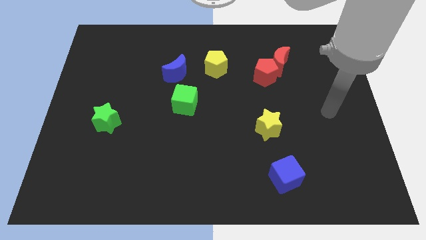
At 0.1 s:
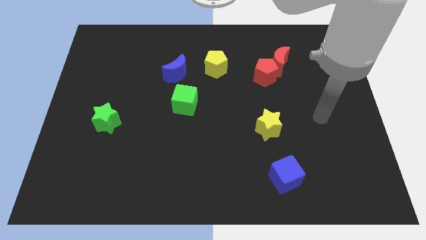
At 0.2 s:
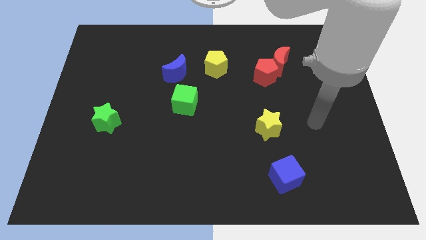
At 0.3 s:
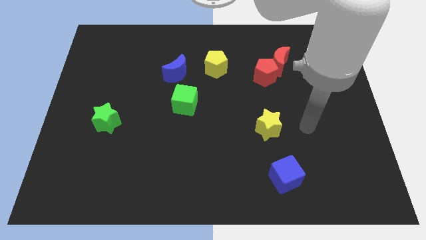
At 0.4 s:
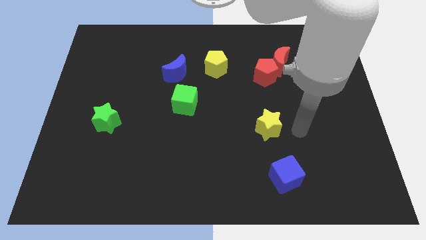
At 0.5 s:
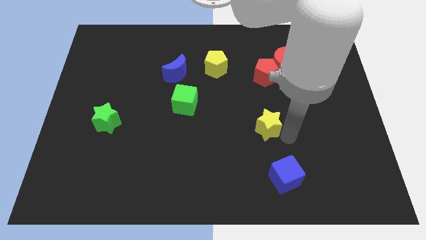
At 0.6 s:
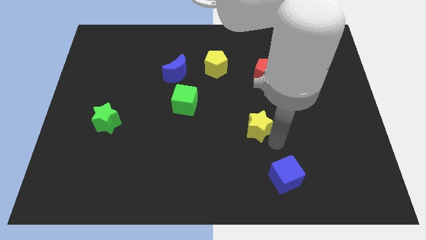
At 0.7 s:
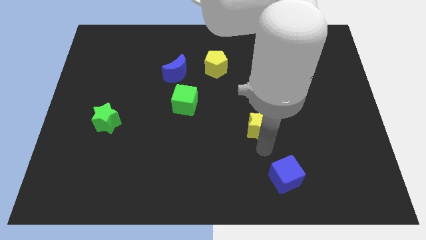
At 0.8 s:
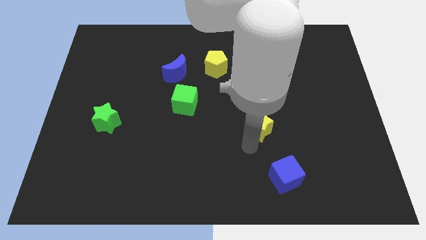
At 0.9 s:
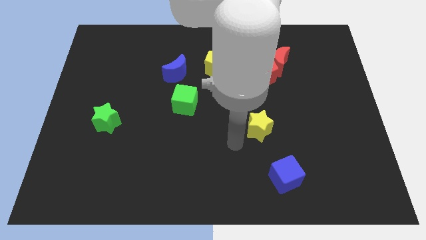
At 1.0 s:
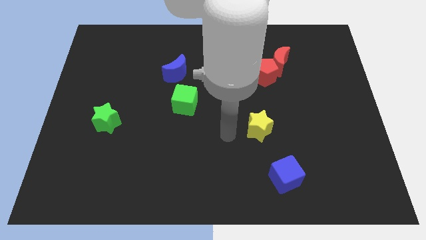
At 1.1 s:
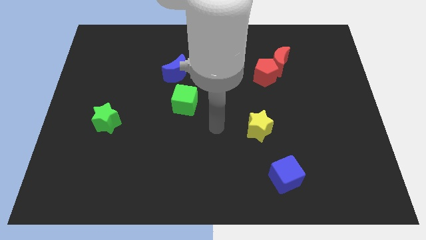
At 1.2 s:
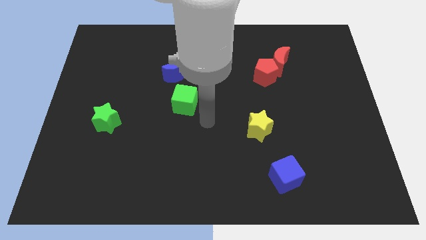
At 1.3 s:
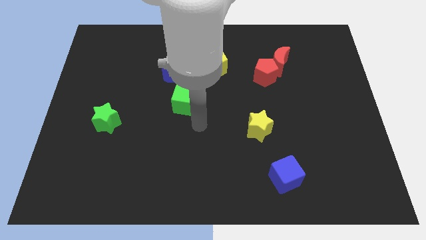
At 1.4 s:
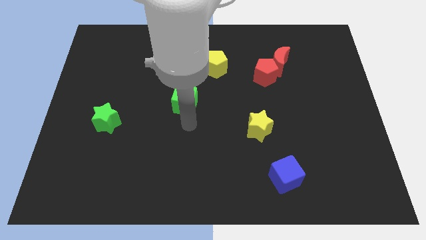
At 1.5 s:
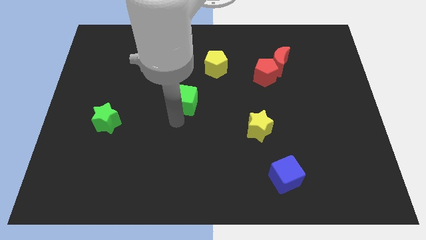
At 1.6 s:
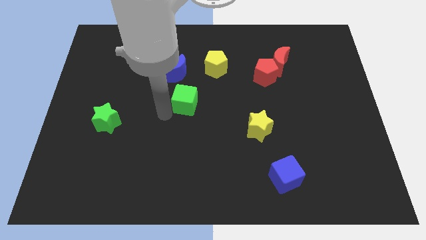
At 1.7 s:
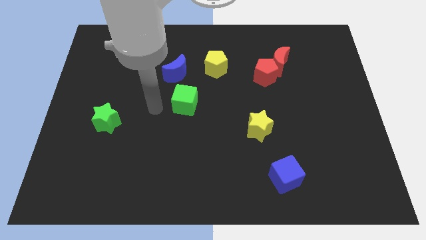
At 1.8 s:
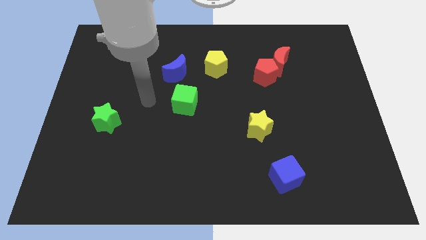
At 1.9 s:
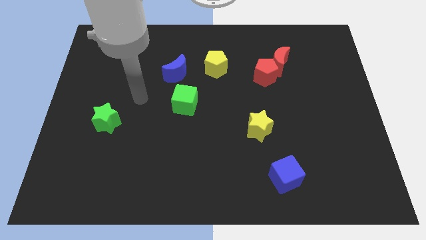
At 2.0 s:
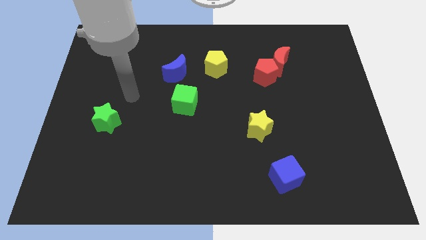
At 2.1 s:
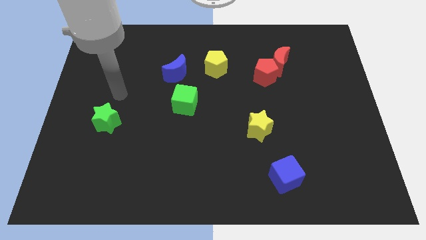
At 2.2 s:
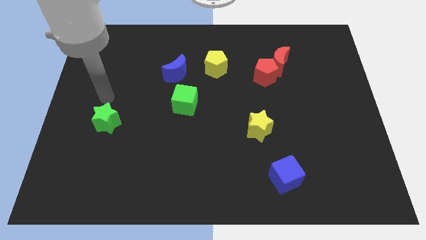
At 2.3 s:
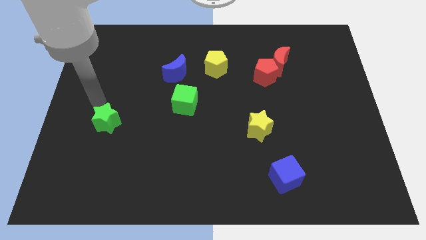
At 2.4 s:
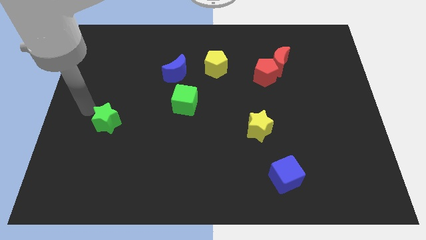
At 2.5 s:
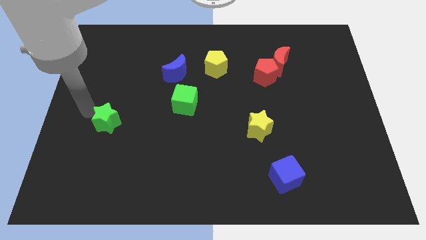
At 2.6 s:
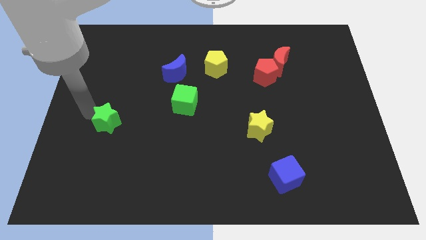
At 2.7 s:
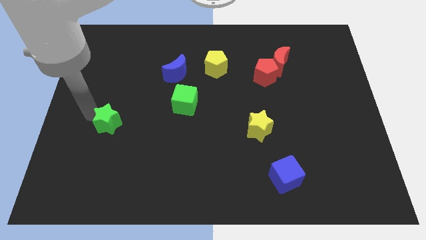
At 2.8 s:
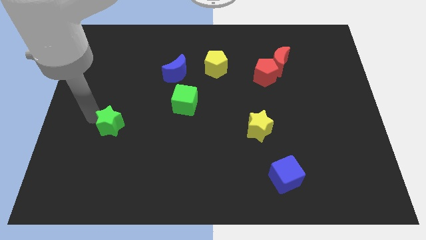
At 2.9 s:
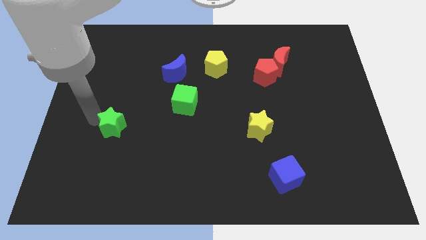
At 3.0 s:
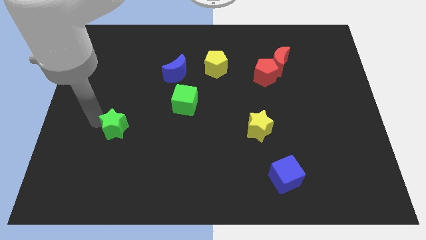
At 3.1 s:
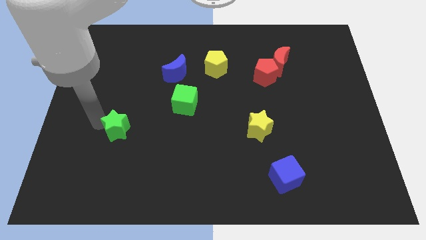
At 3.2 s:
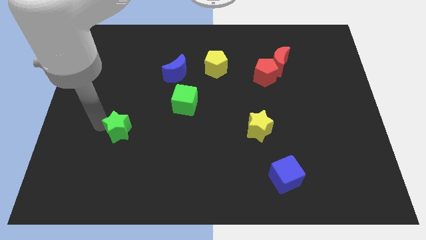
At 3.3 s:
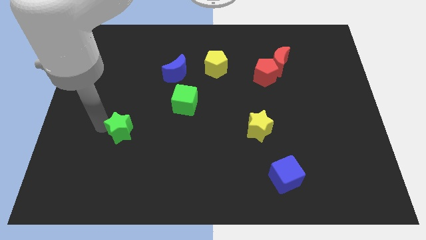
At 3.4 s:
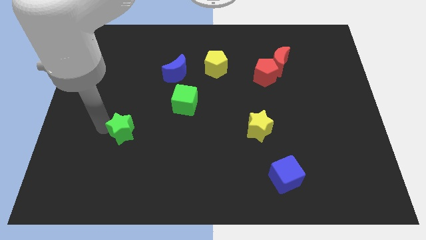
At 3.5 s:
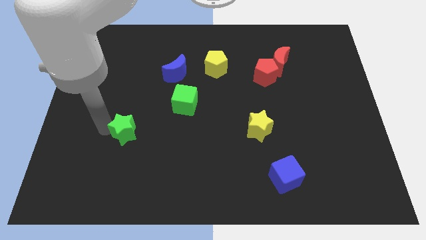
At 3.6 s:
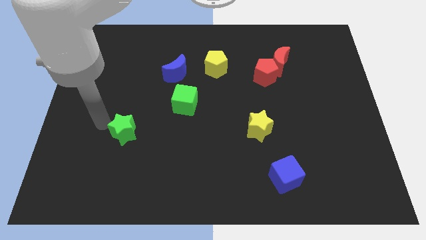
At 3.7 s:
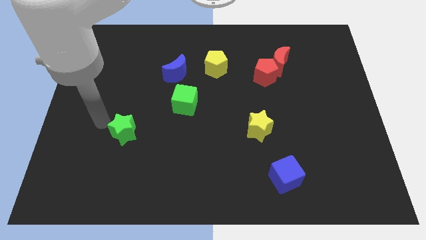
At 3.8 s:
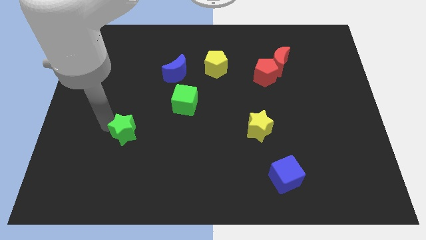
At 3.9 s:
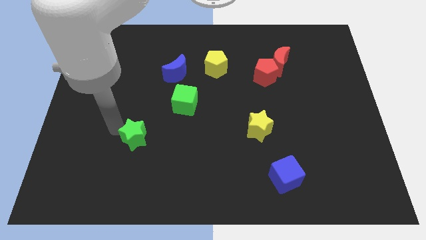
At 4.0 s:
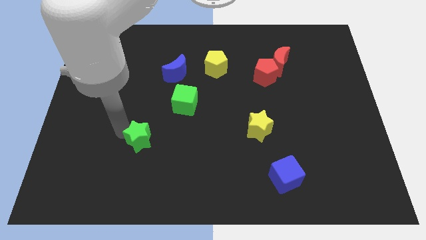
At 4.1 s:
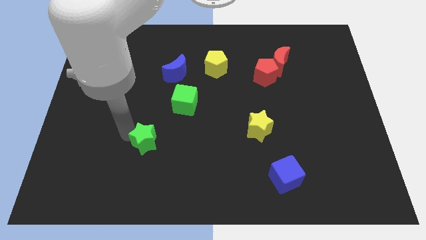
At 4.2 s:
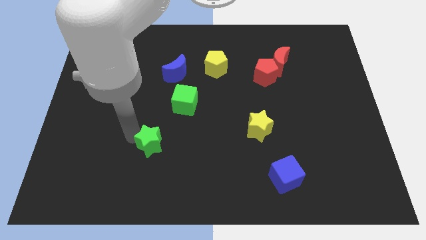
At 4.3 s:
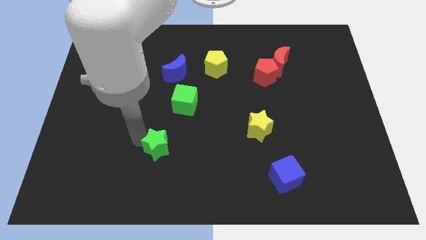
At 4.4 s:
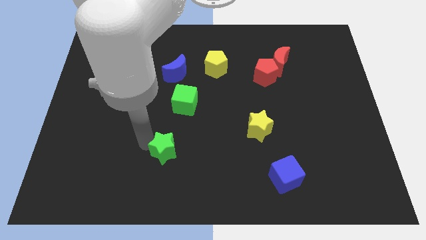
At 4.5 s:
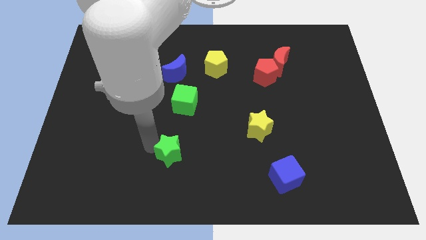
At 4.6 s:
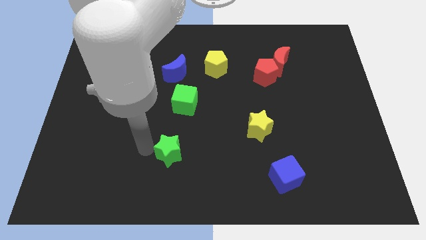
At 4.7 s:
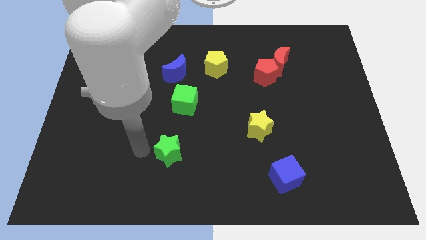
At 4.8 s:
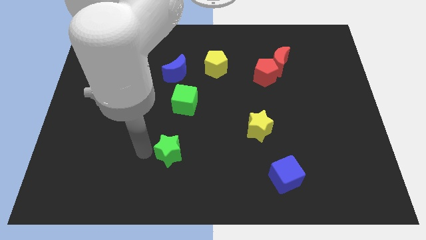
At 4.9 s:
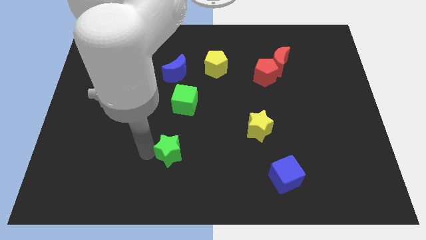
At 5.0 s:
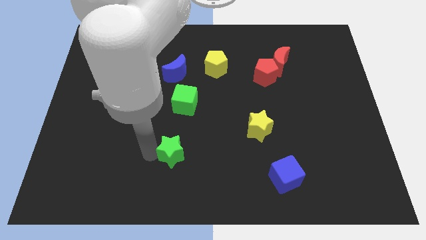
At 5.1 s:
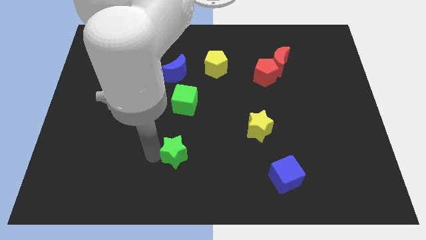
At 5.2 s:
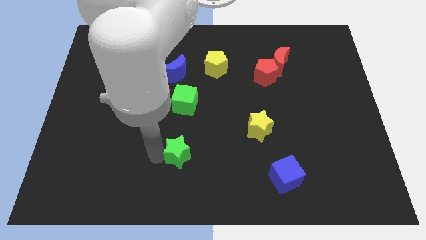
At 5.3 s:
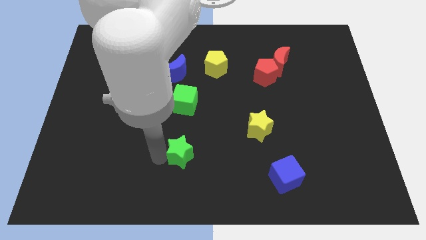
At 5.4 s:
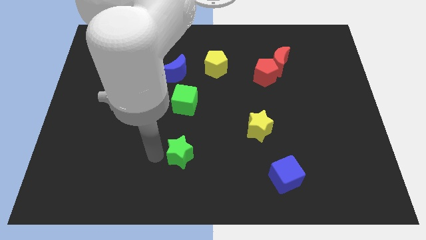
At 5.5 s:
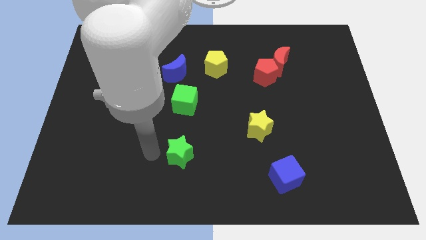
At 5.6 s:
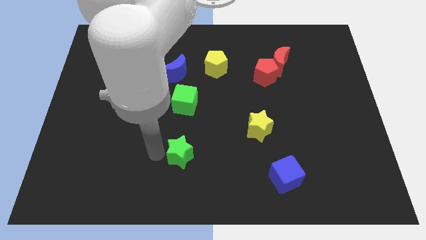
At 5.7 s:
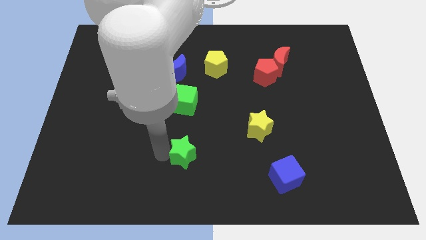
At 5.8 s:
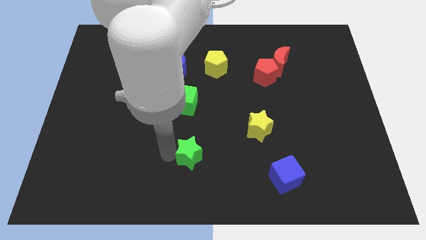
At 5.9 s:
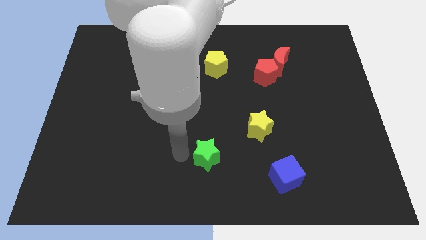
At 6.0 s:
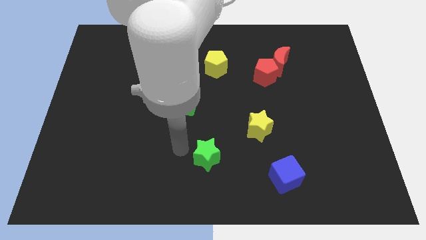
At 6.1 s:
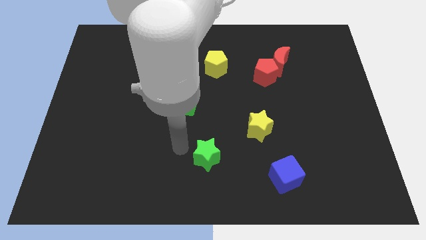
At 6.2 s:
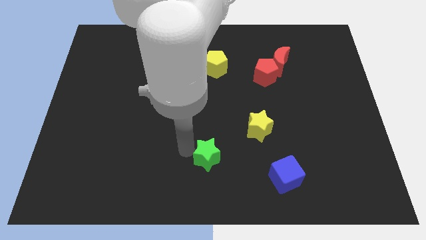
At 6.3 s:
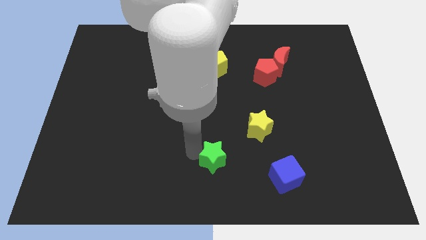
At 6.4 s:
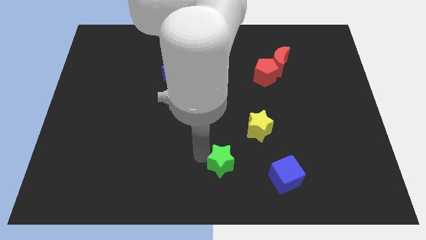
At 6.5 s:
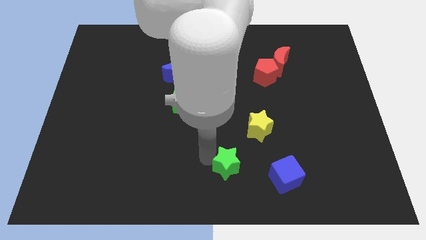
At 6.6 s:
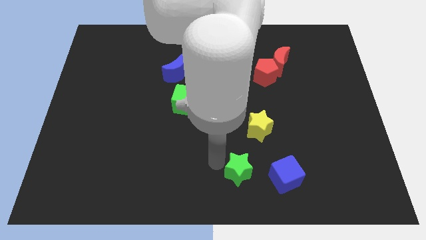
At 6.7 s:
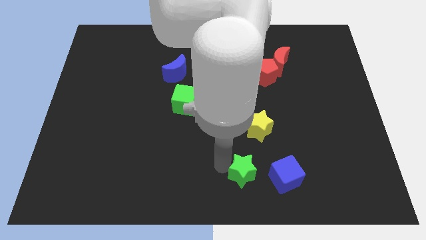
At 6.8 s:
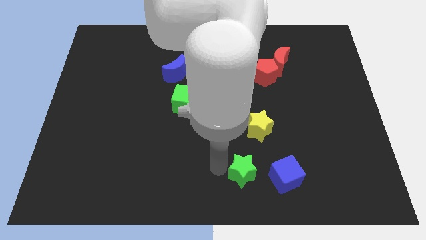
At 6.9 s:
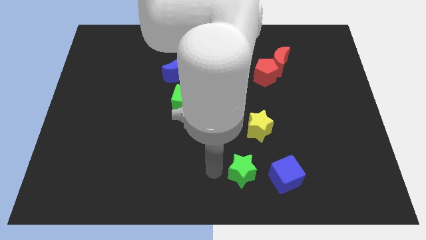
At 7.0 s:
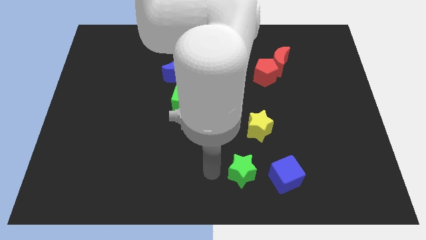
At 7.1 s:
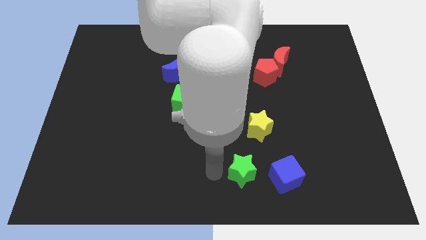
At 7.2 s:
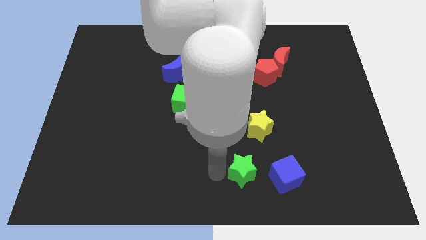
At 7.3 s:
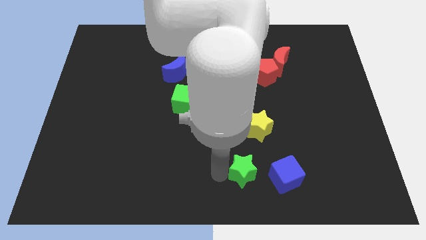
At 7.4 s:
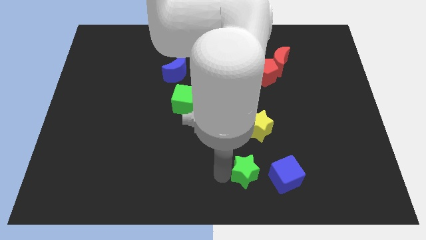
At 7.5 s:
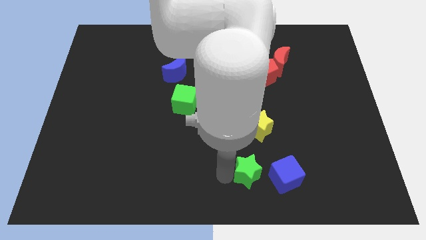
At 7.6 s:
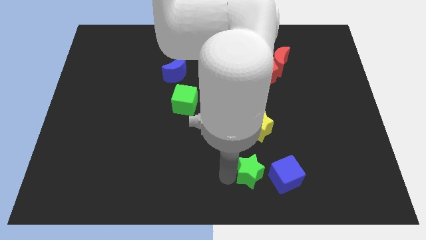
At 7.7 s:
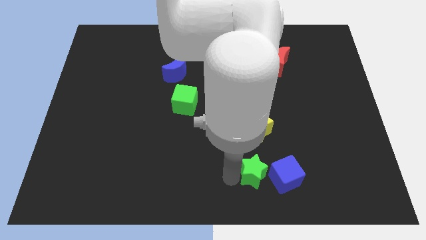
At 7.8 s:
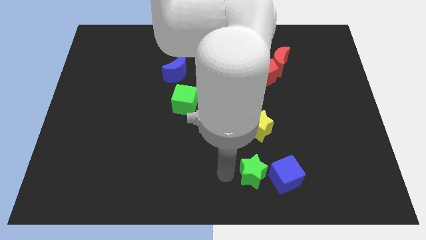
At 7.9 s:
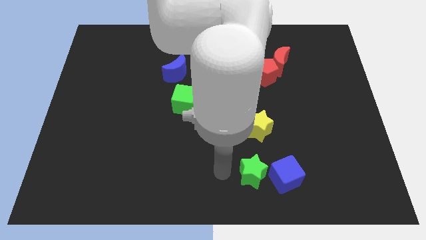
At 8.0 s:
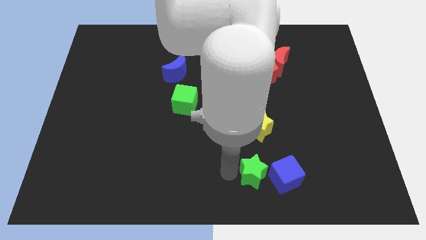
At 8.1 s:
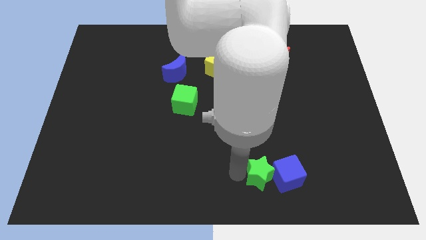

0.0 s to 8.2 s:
slide the green star towards the blue cube
